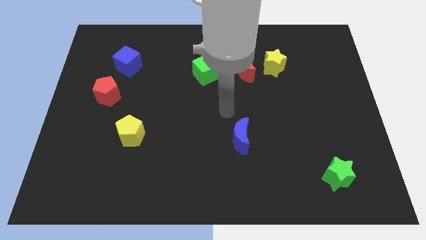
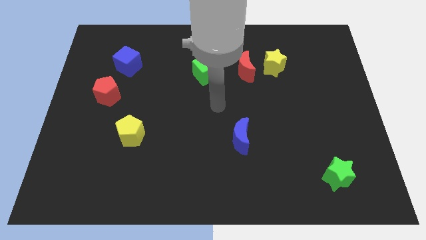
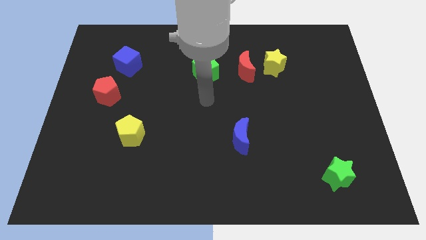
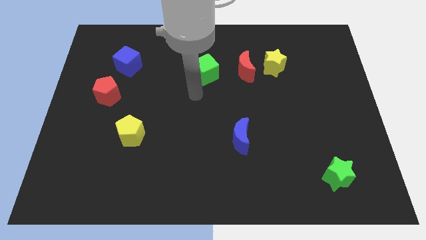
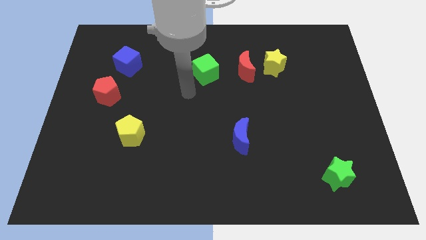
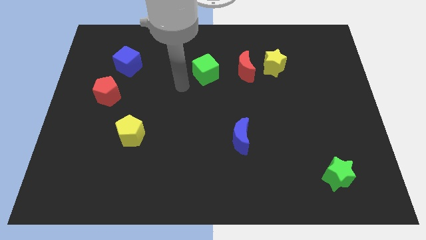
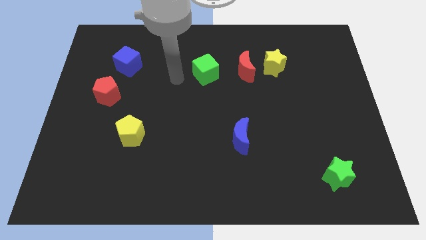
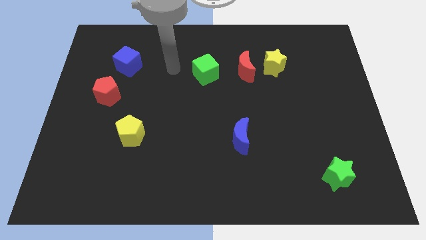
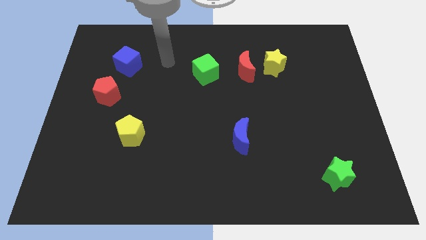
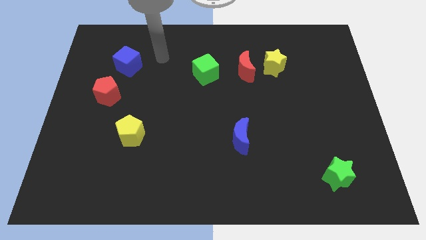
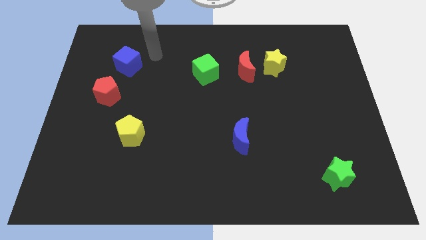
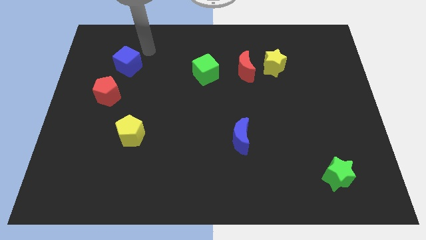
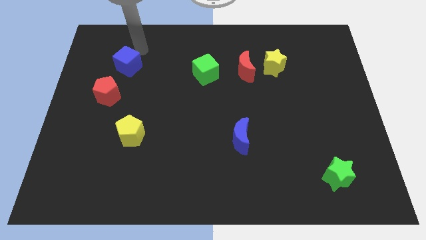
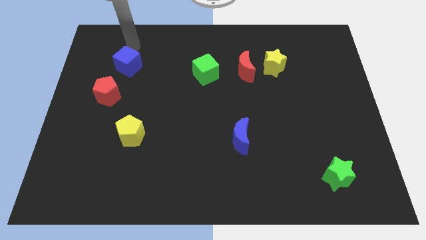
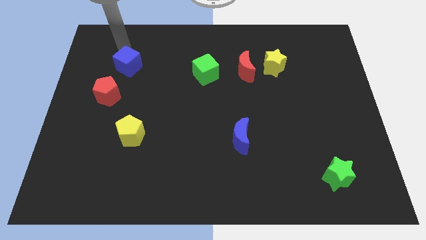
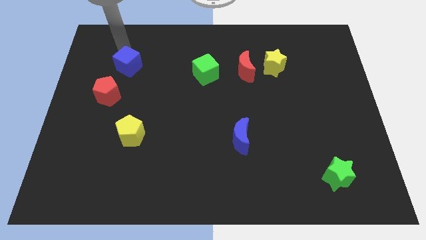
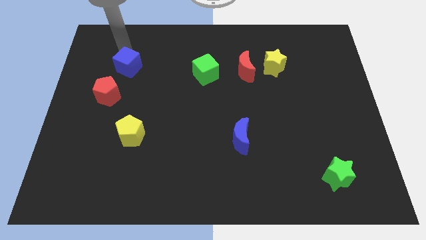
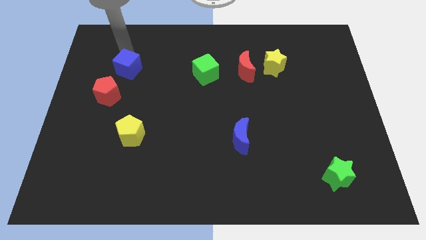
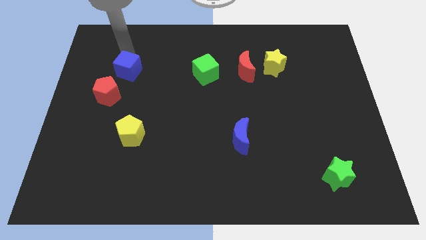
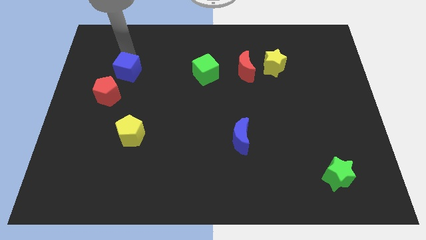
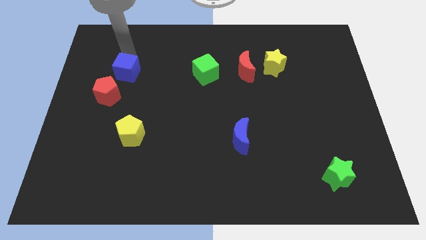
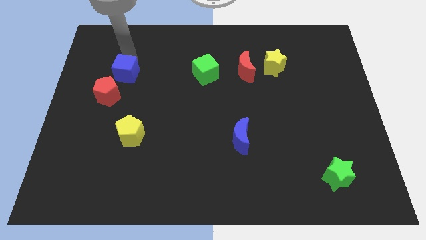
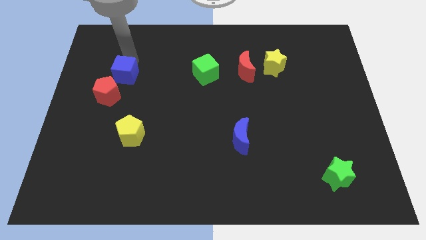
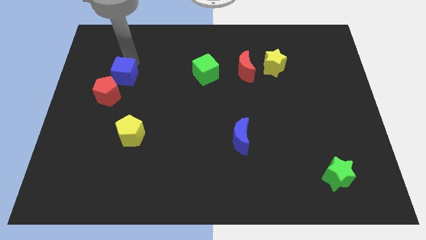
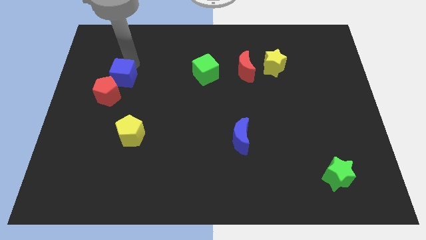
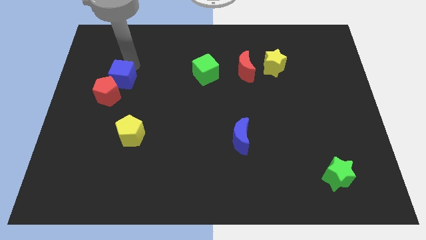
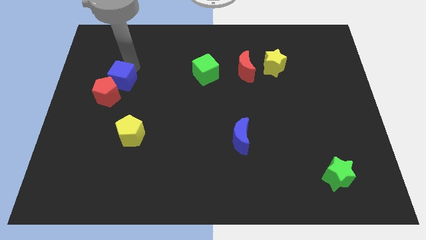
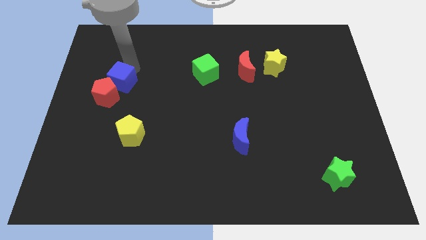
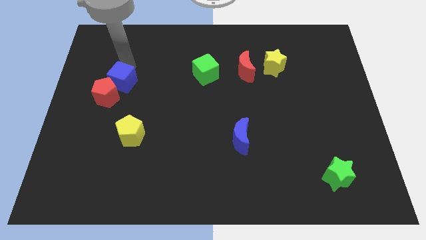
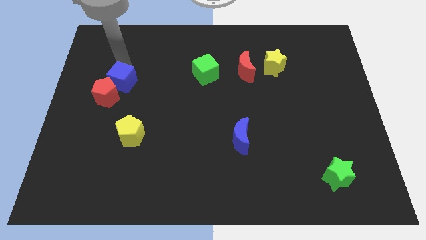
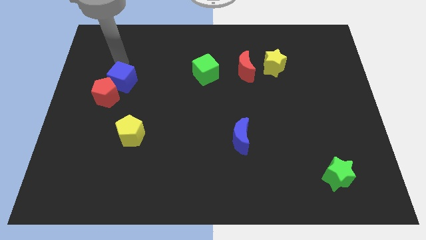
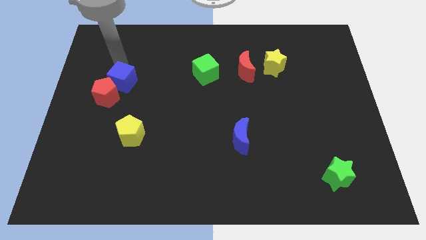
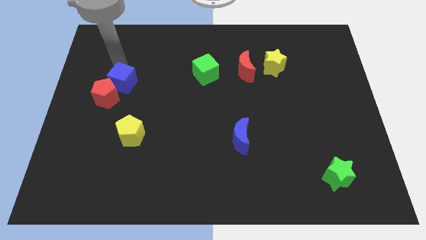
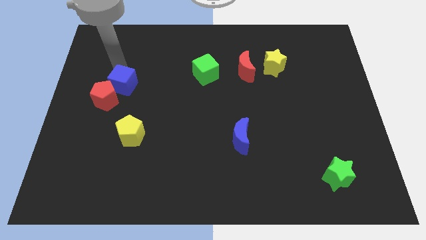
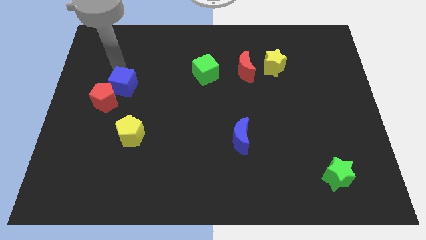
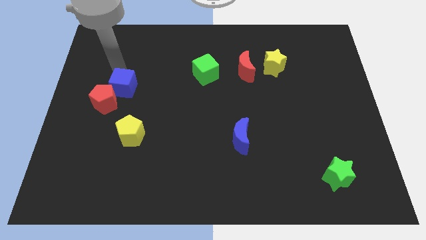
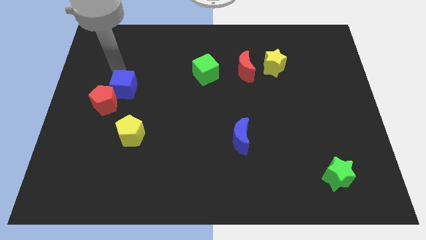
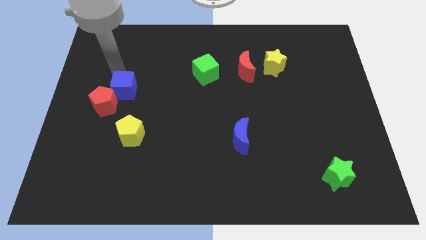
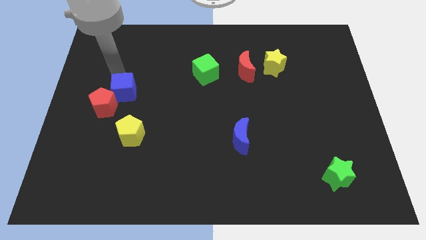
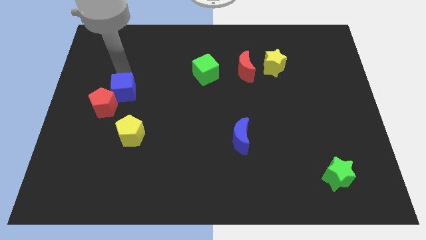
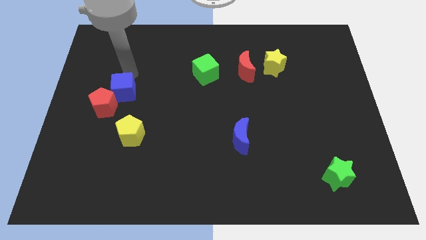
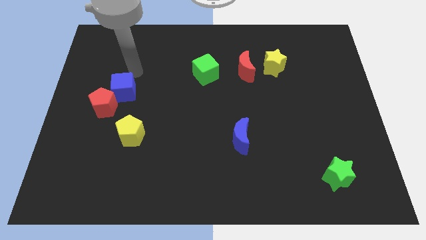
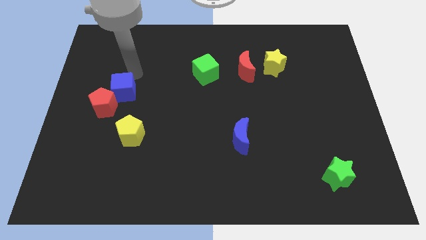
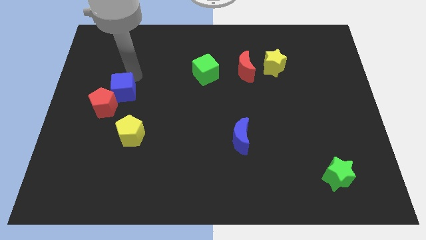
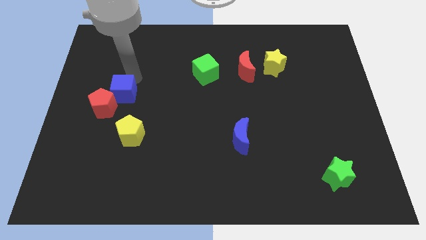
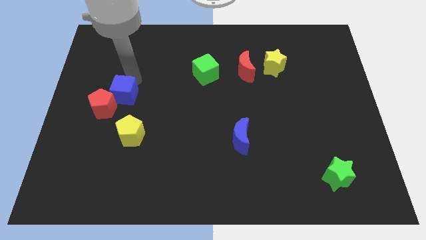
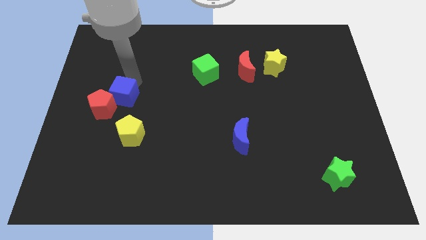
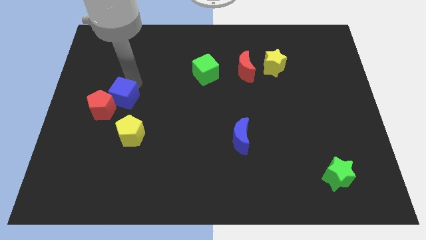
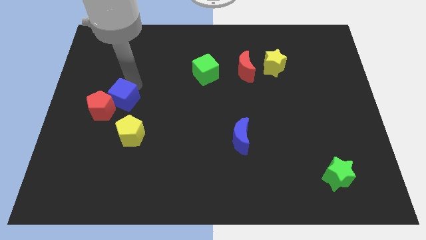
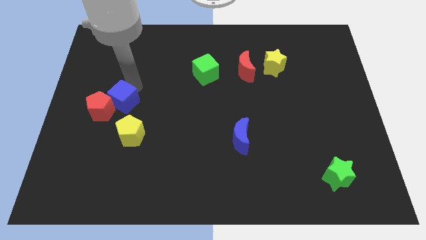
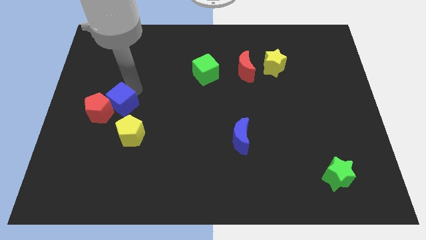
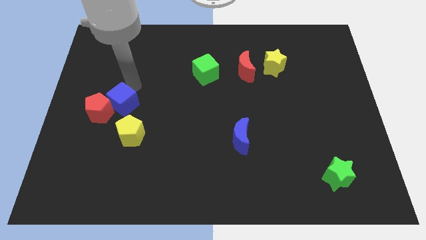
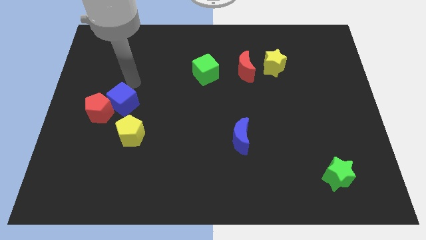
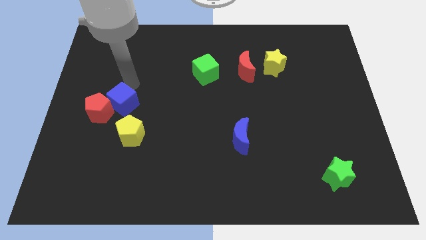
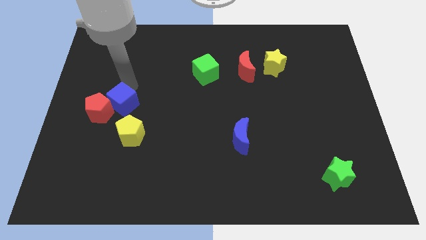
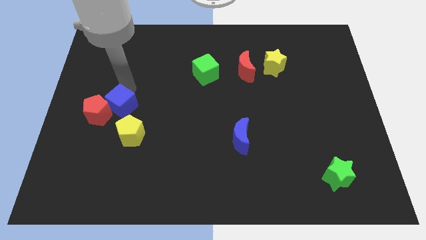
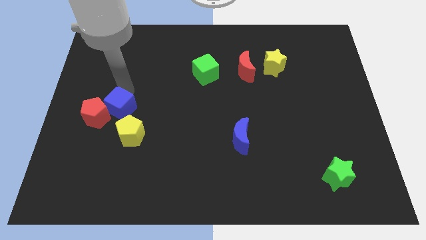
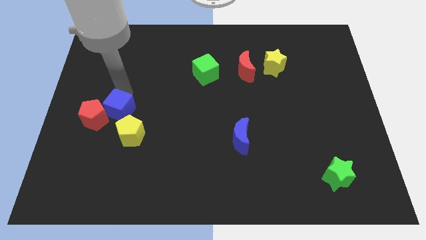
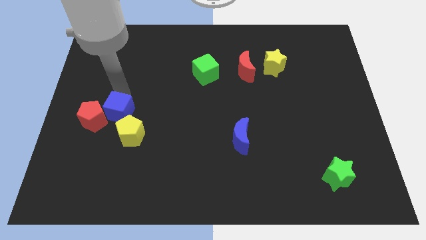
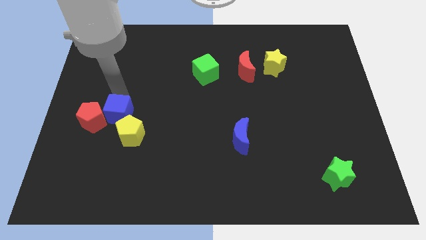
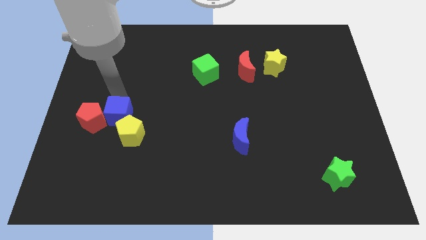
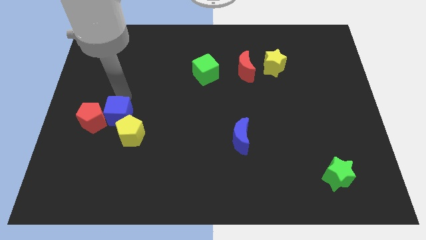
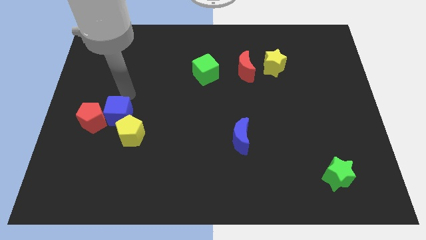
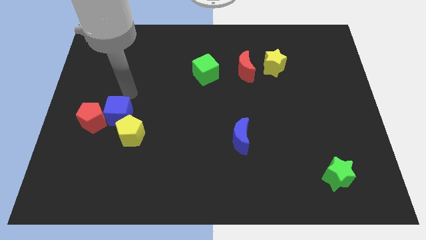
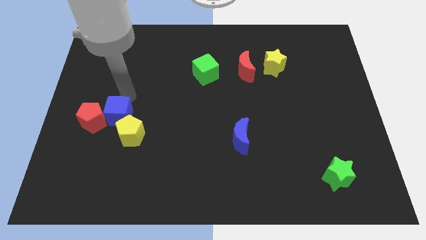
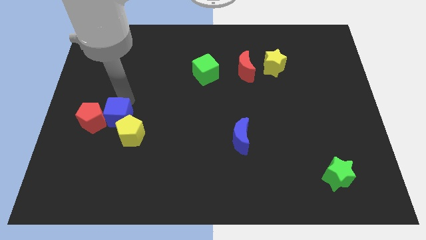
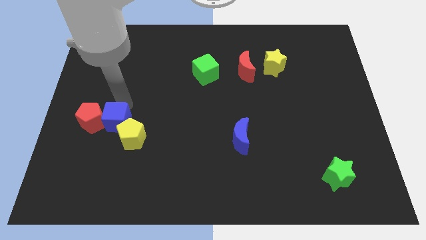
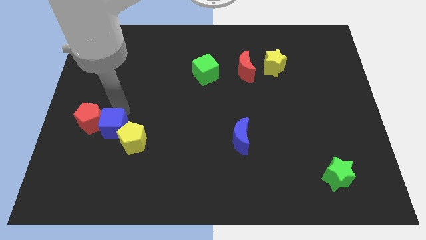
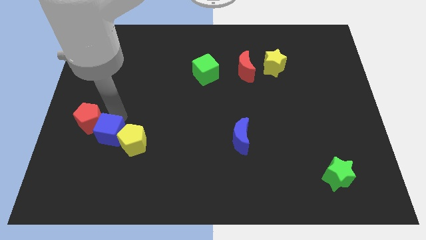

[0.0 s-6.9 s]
push the blue cube downwards

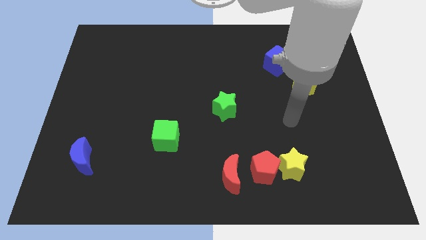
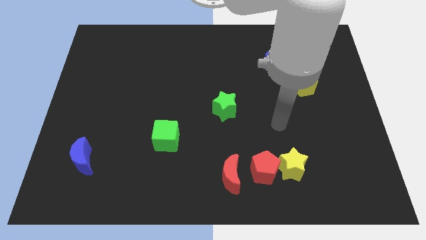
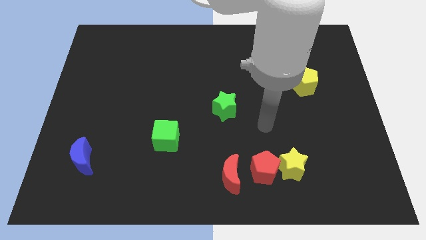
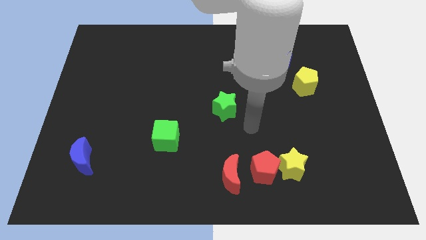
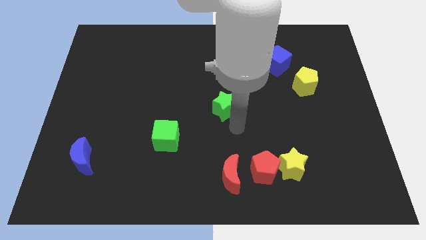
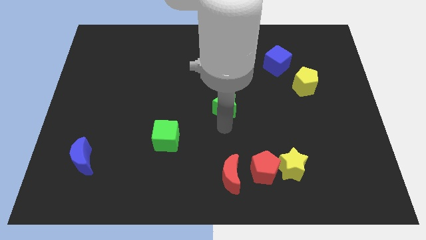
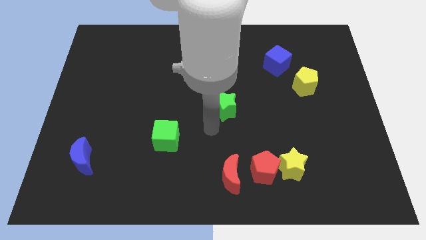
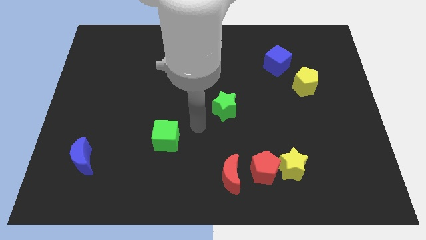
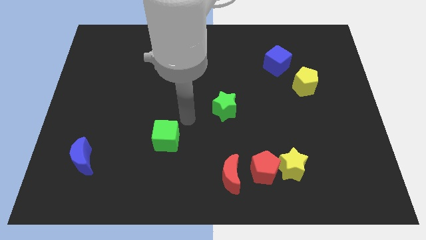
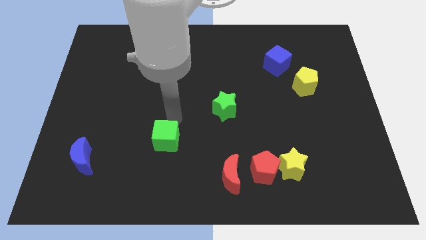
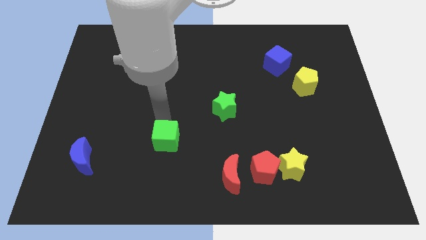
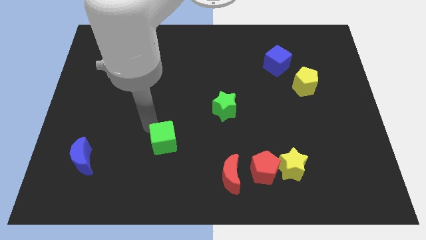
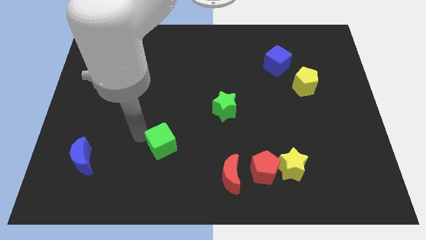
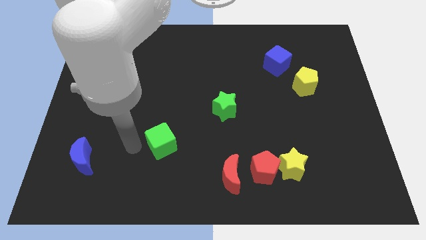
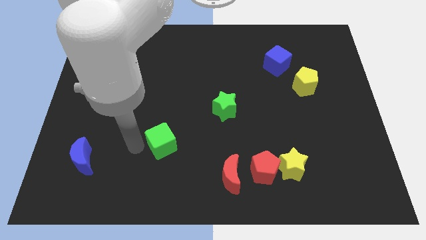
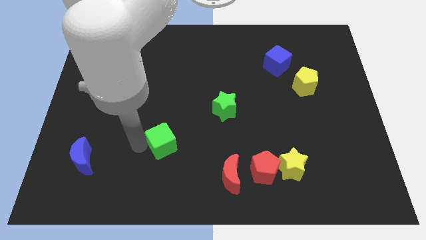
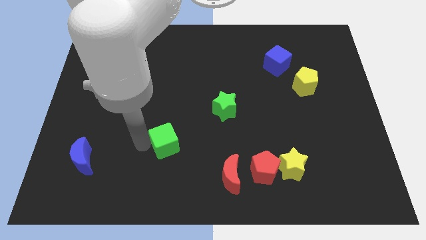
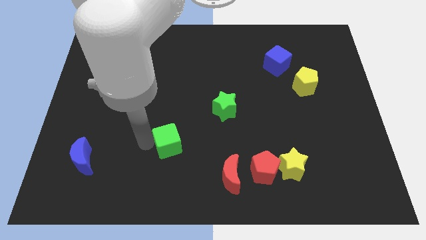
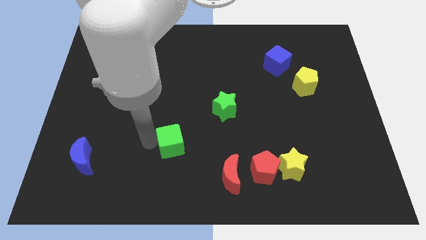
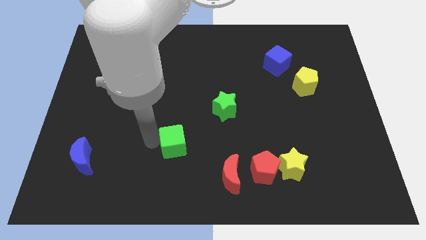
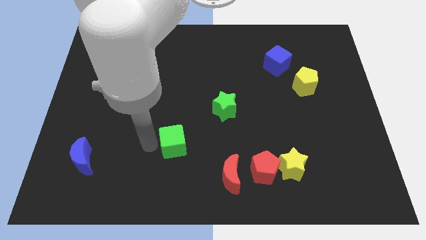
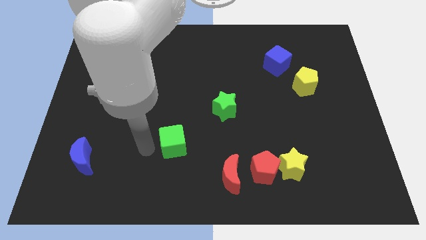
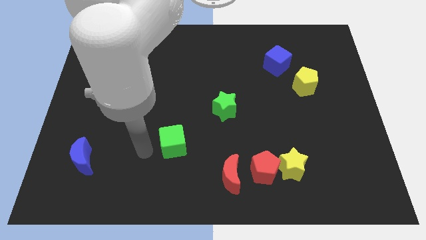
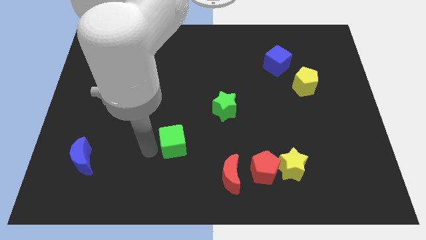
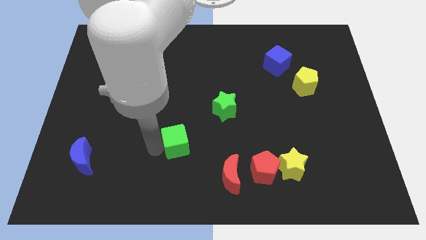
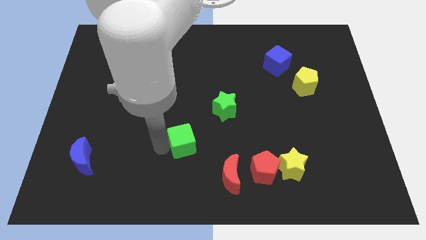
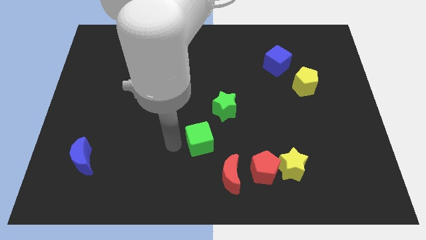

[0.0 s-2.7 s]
slightly slide the green cube right
